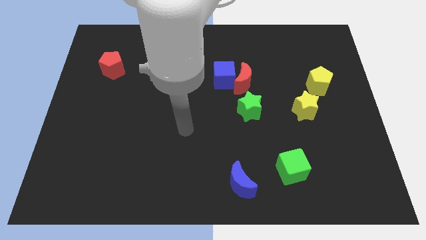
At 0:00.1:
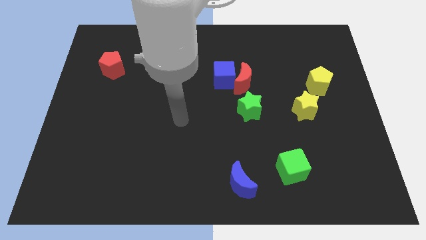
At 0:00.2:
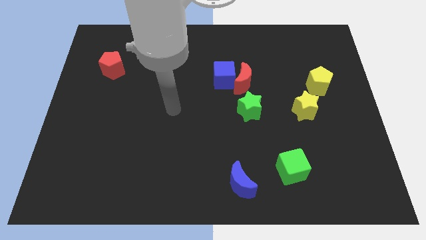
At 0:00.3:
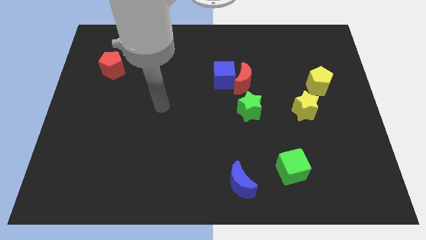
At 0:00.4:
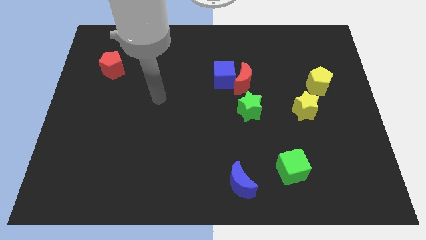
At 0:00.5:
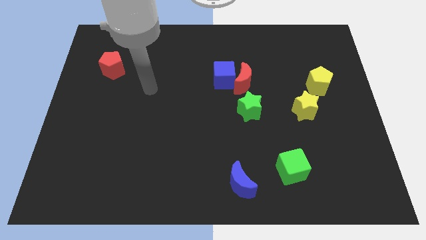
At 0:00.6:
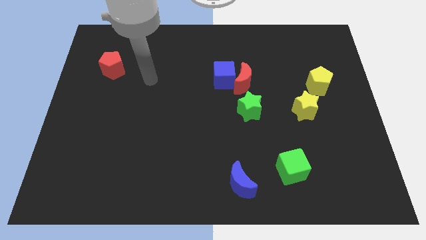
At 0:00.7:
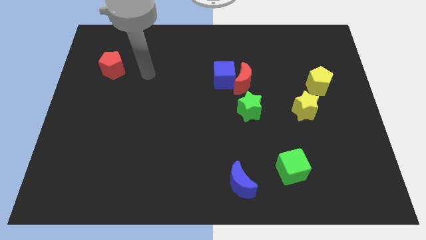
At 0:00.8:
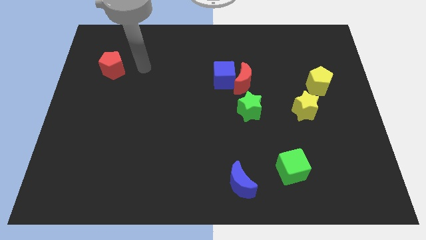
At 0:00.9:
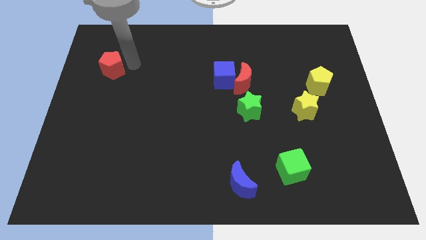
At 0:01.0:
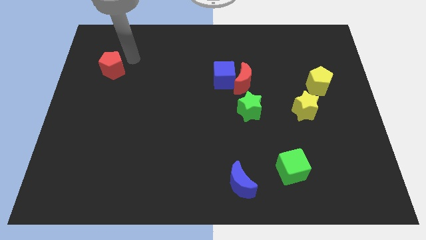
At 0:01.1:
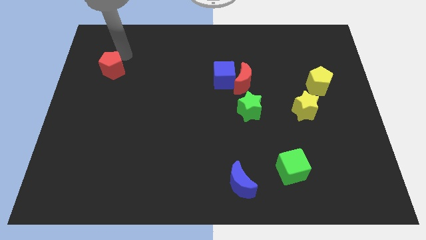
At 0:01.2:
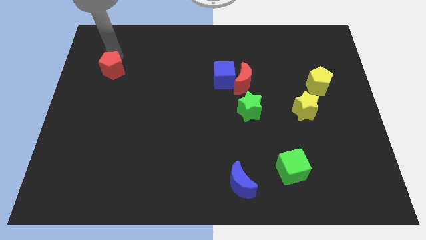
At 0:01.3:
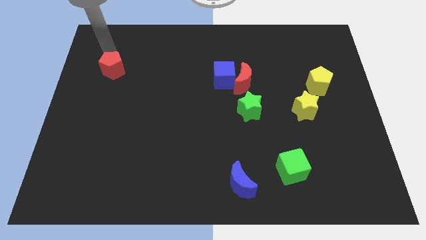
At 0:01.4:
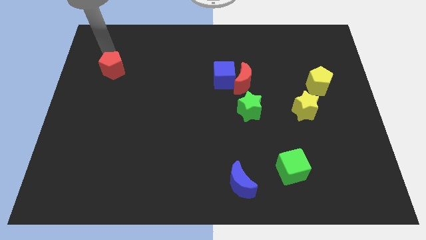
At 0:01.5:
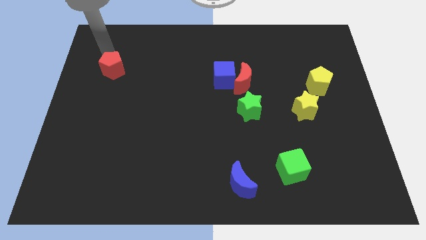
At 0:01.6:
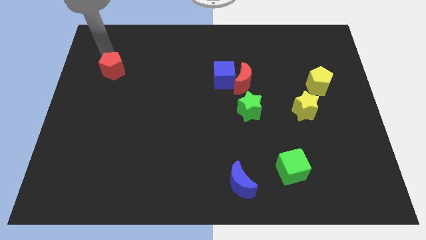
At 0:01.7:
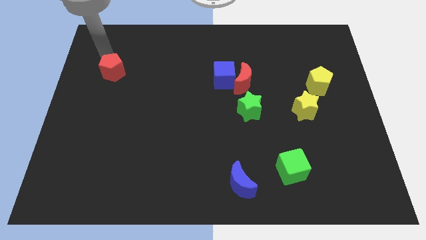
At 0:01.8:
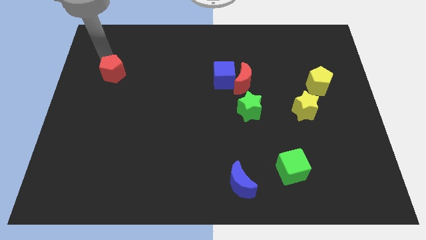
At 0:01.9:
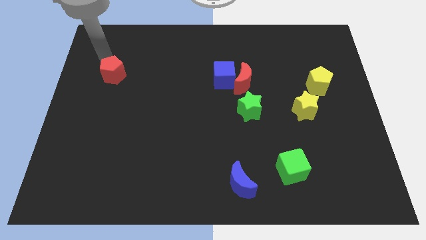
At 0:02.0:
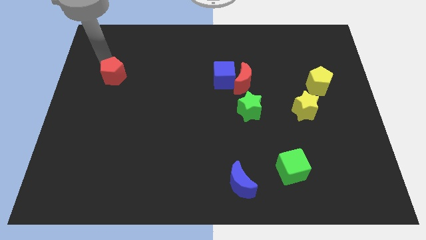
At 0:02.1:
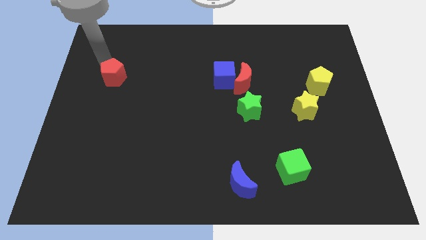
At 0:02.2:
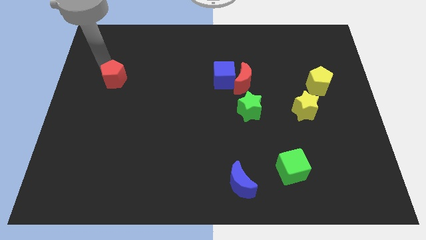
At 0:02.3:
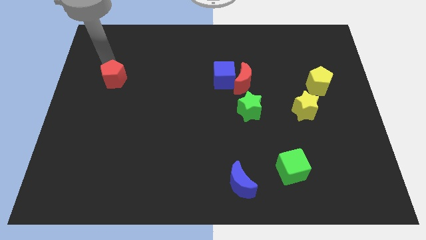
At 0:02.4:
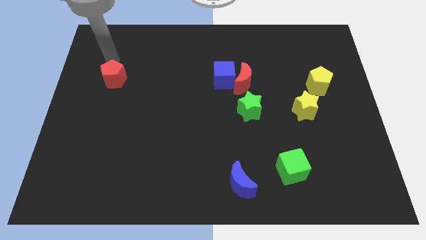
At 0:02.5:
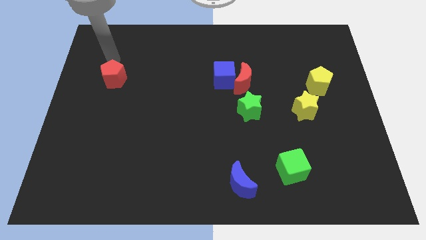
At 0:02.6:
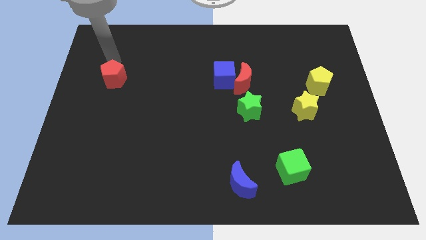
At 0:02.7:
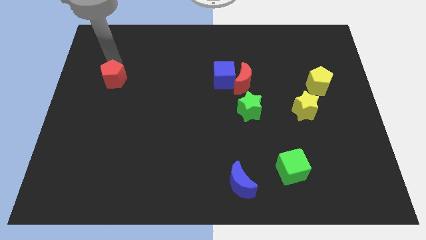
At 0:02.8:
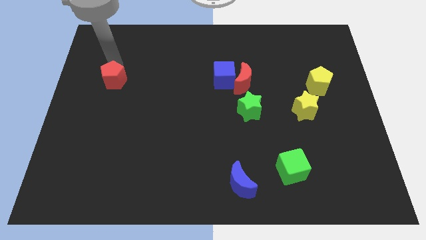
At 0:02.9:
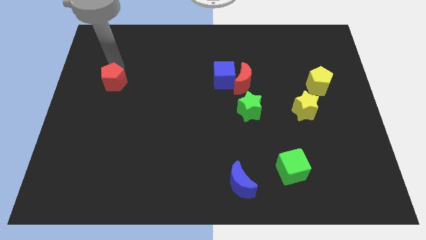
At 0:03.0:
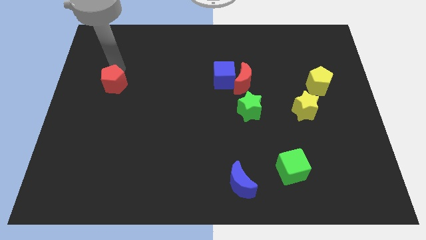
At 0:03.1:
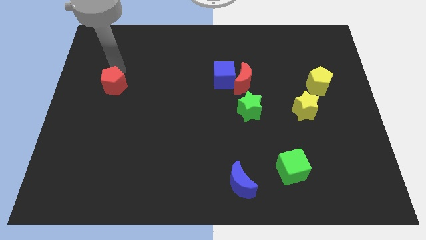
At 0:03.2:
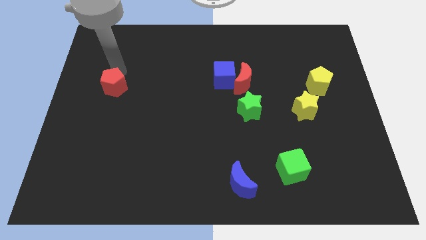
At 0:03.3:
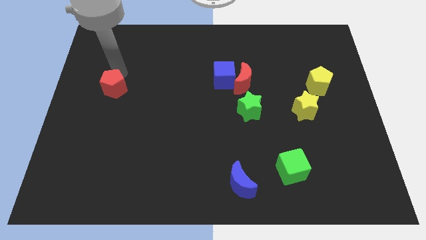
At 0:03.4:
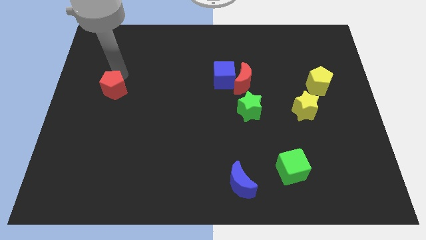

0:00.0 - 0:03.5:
slide the red pentagon a bit down

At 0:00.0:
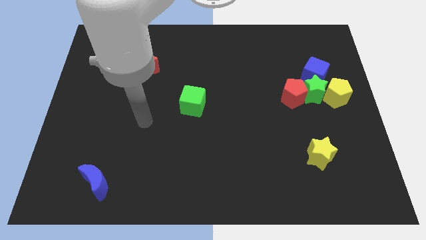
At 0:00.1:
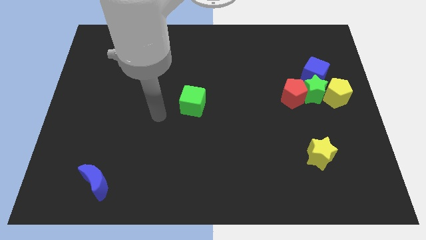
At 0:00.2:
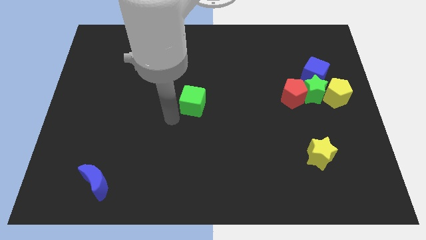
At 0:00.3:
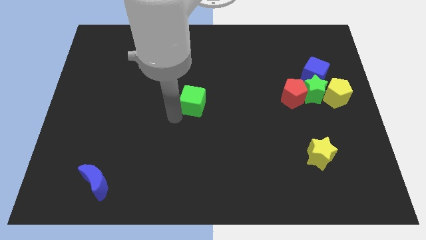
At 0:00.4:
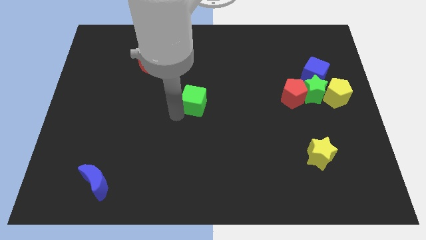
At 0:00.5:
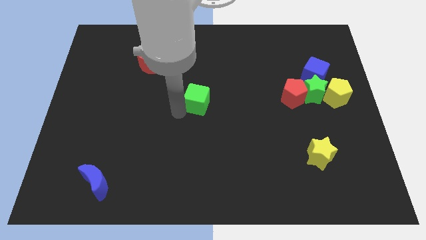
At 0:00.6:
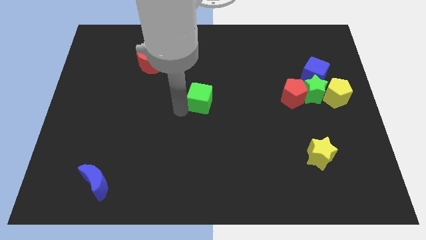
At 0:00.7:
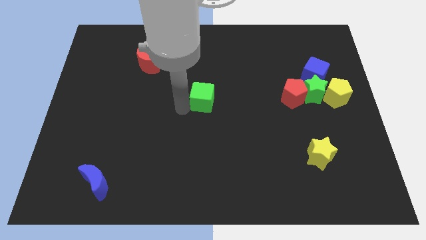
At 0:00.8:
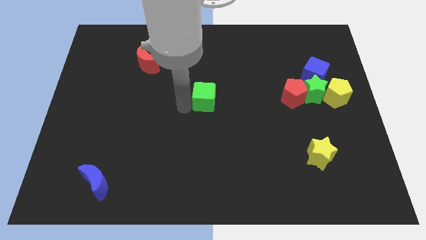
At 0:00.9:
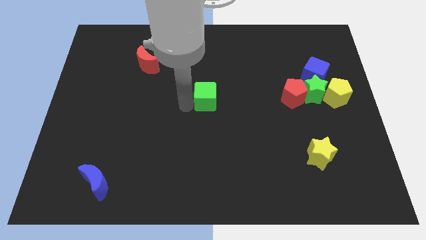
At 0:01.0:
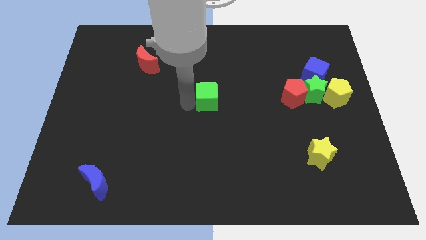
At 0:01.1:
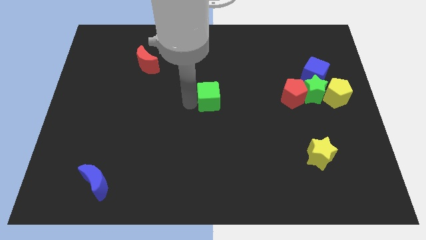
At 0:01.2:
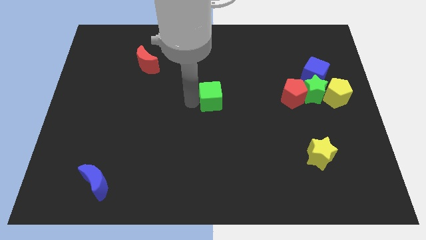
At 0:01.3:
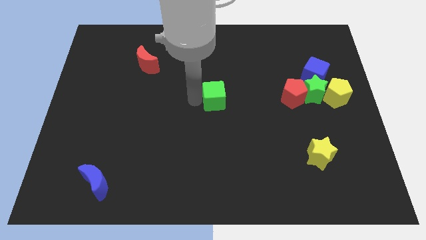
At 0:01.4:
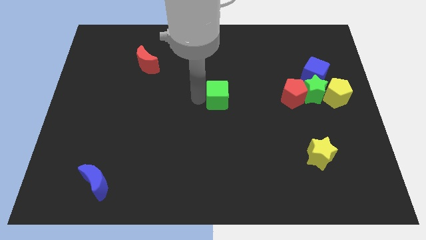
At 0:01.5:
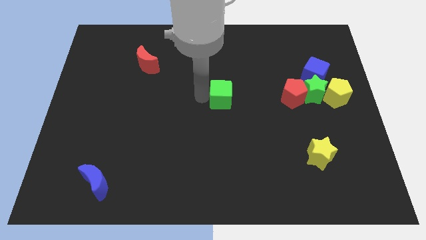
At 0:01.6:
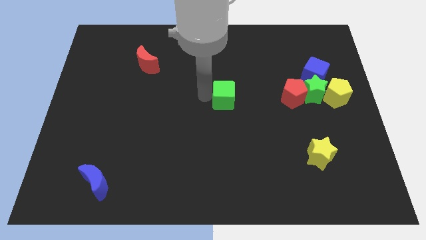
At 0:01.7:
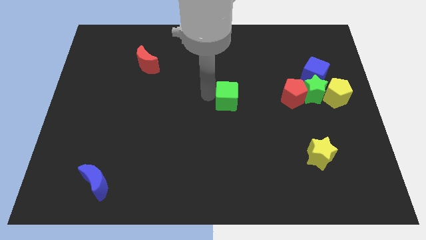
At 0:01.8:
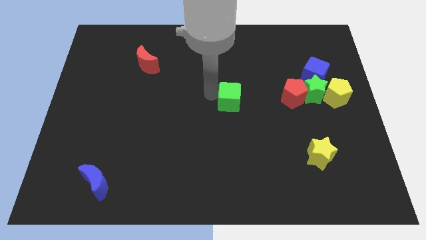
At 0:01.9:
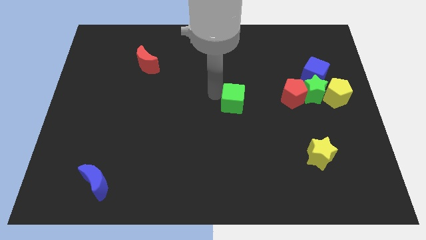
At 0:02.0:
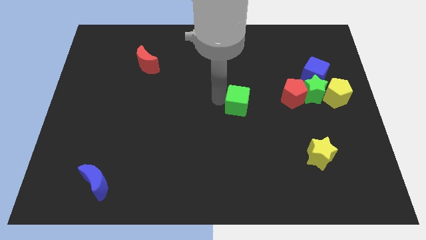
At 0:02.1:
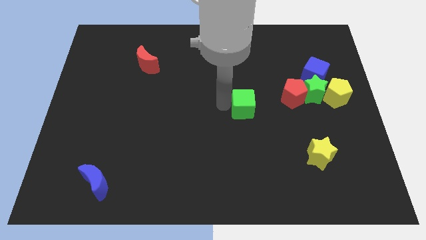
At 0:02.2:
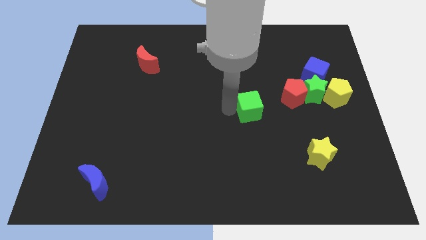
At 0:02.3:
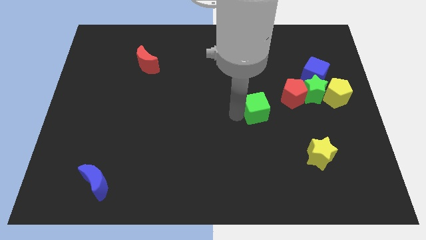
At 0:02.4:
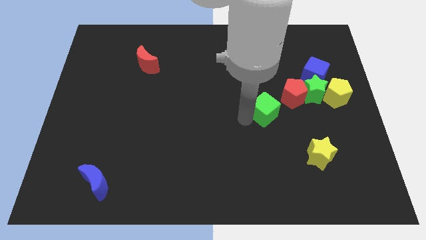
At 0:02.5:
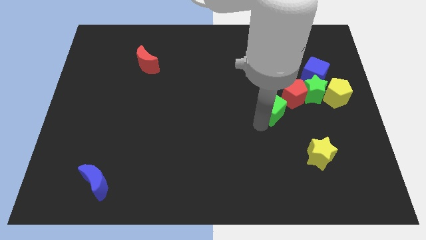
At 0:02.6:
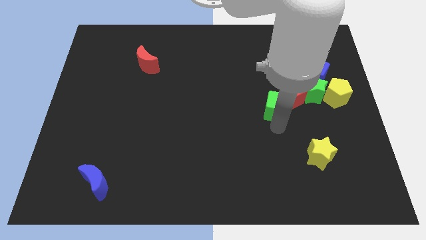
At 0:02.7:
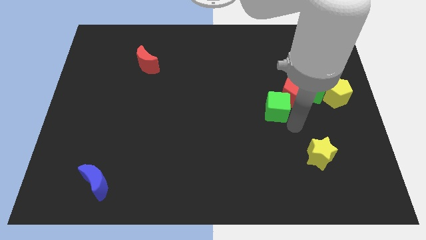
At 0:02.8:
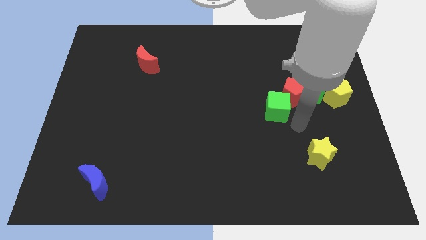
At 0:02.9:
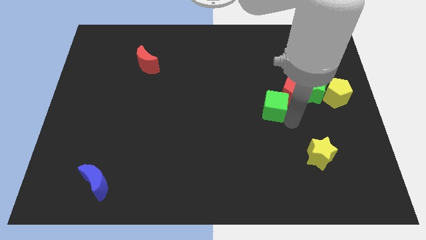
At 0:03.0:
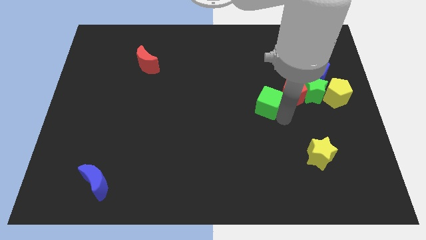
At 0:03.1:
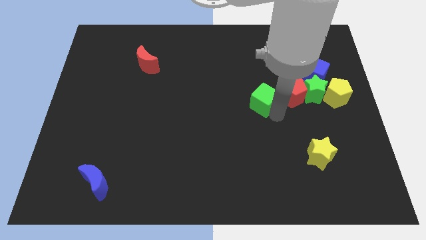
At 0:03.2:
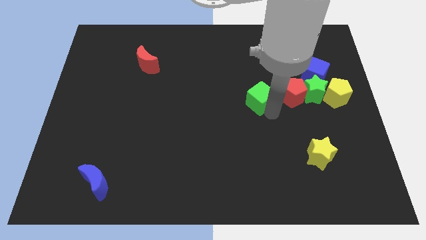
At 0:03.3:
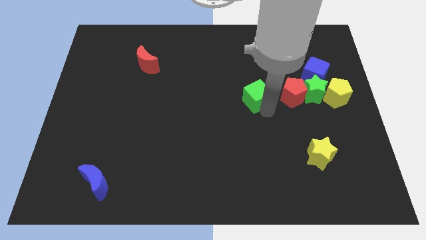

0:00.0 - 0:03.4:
move the green cube somewhat up and right

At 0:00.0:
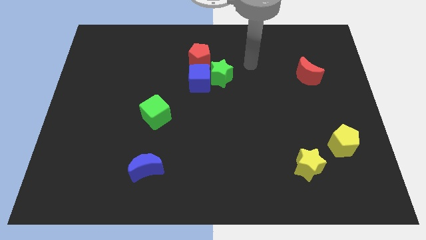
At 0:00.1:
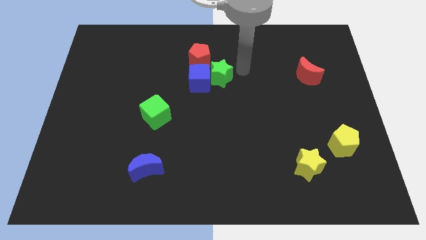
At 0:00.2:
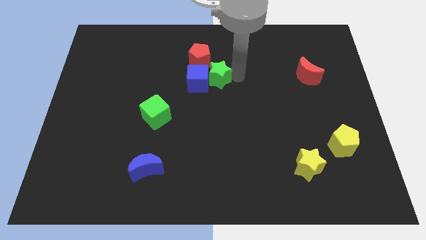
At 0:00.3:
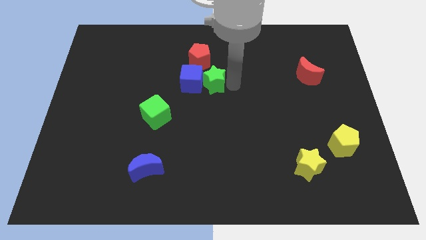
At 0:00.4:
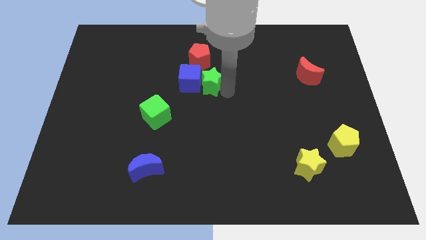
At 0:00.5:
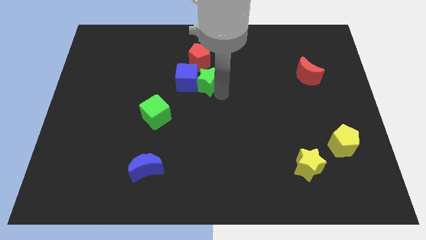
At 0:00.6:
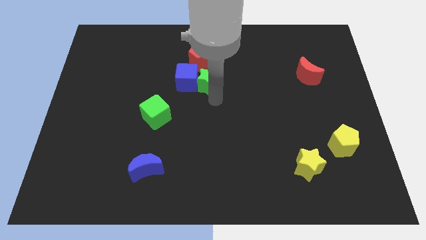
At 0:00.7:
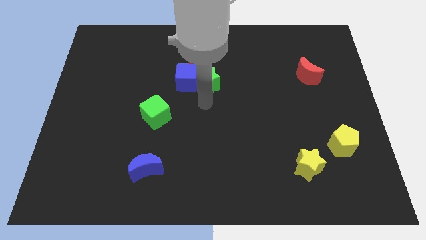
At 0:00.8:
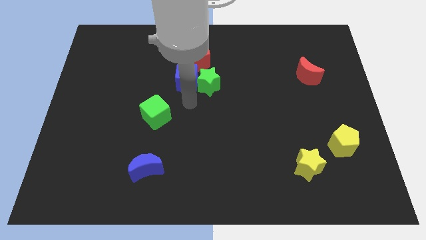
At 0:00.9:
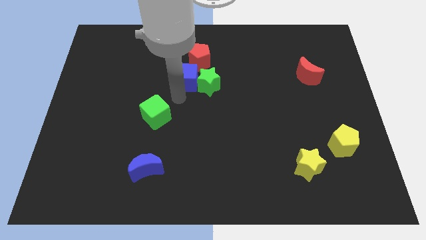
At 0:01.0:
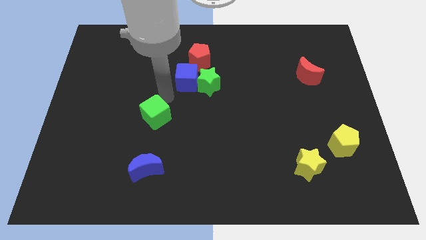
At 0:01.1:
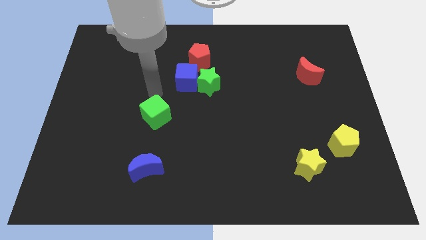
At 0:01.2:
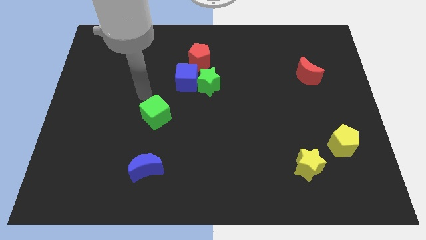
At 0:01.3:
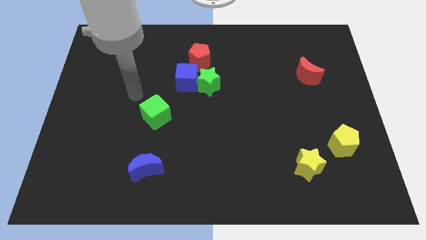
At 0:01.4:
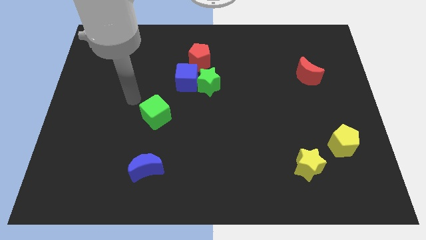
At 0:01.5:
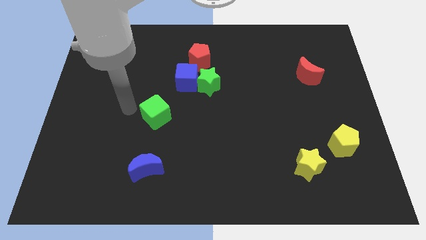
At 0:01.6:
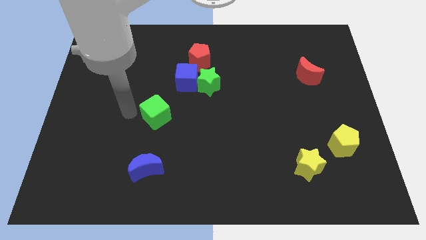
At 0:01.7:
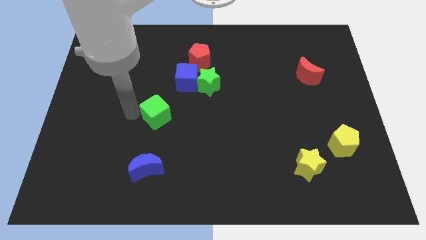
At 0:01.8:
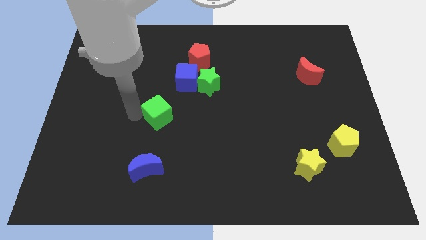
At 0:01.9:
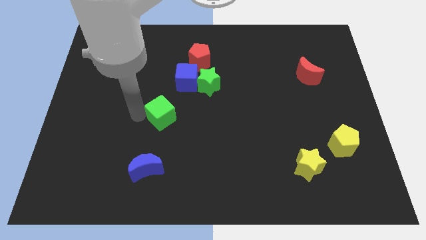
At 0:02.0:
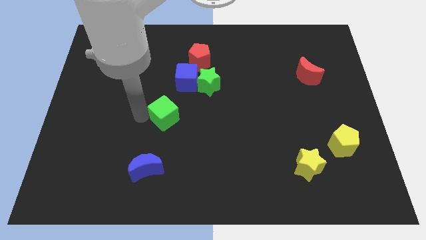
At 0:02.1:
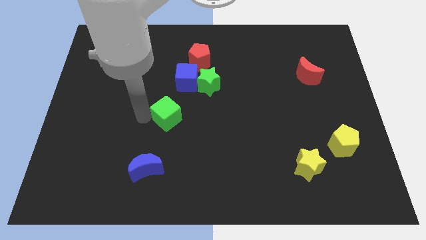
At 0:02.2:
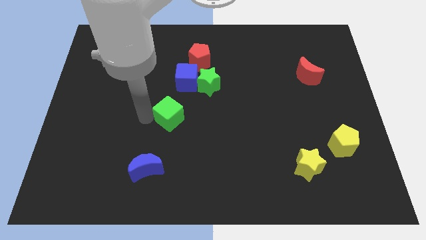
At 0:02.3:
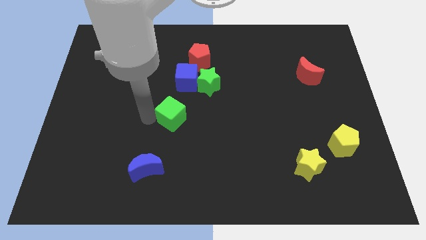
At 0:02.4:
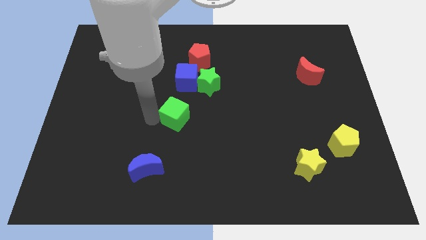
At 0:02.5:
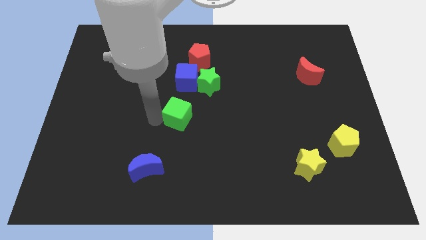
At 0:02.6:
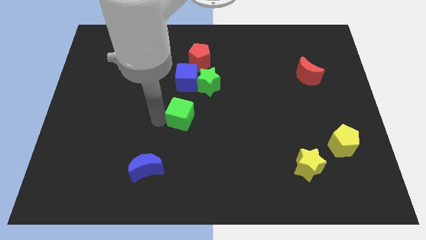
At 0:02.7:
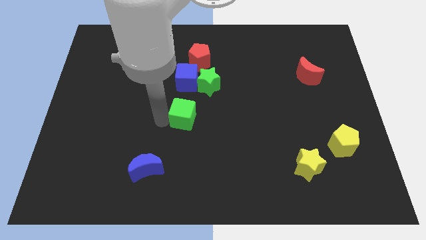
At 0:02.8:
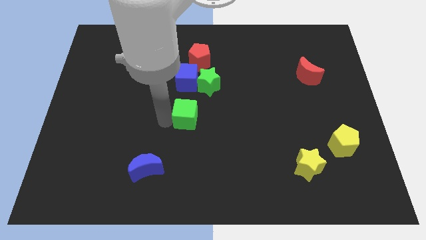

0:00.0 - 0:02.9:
move the green cube a little right